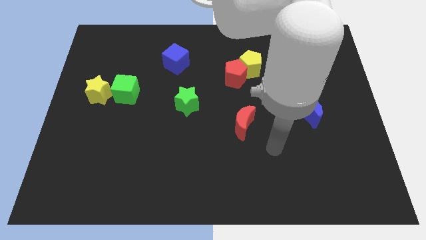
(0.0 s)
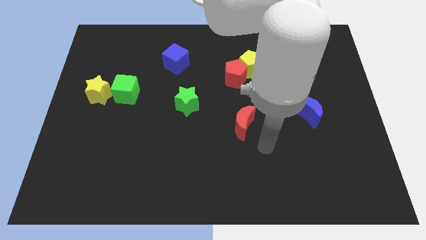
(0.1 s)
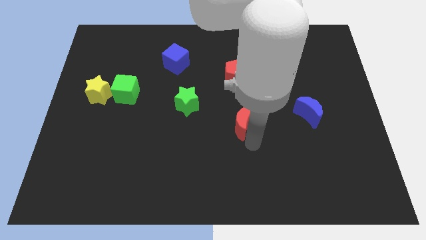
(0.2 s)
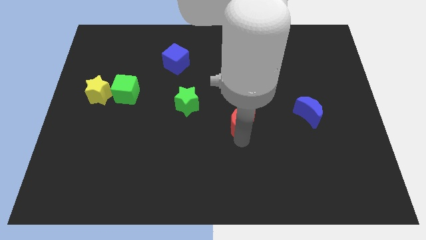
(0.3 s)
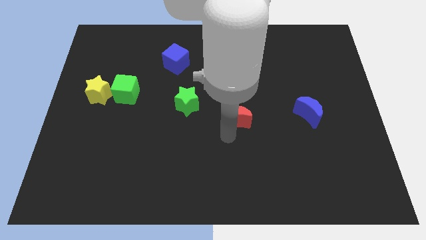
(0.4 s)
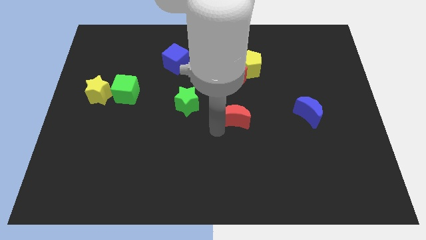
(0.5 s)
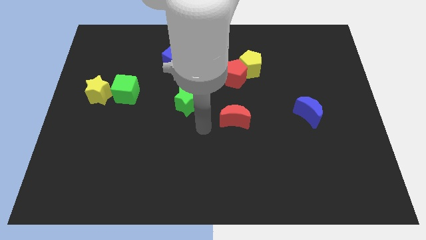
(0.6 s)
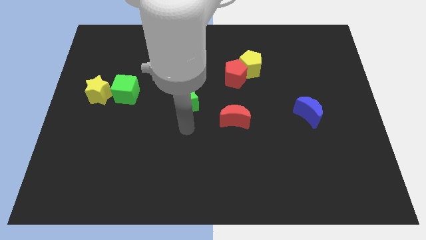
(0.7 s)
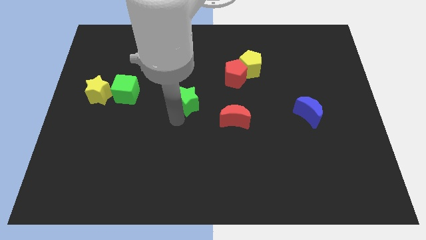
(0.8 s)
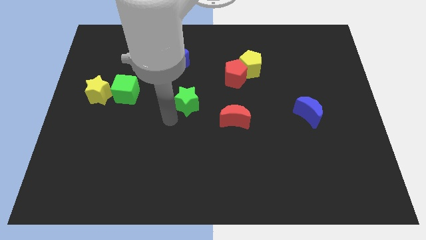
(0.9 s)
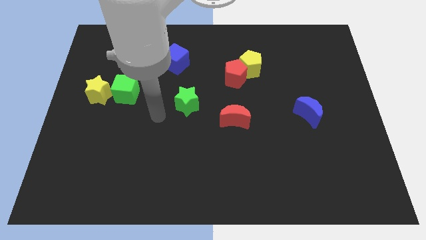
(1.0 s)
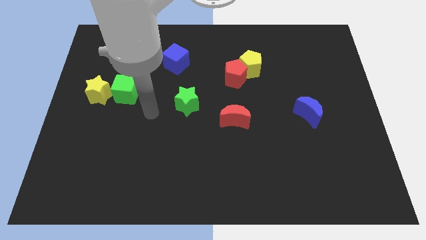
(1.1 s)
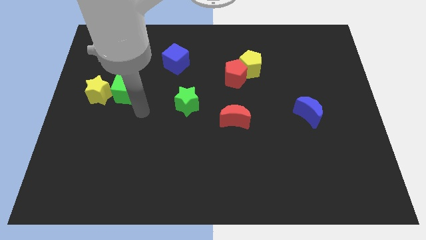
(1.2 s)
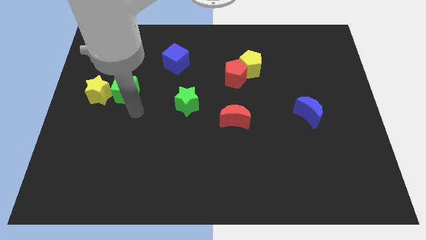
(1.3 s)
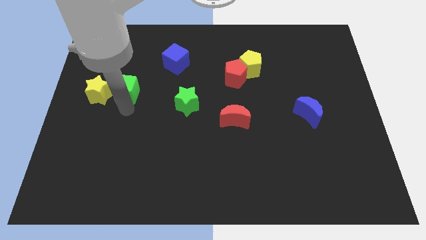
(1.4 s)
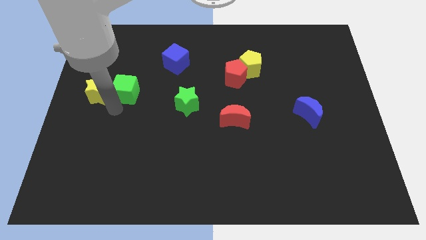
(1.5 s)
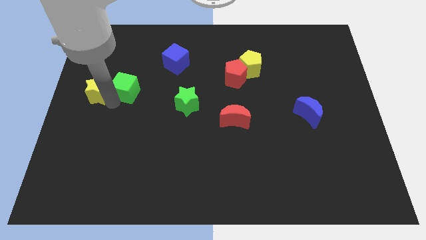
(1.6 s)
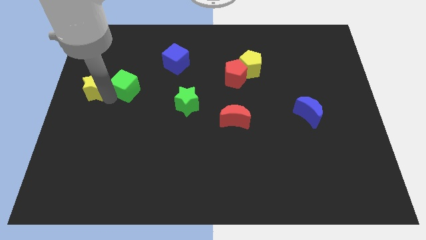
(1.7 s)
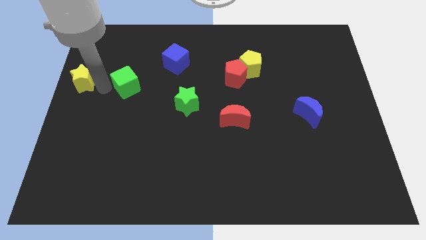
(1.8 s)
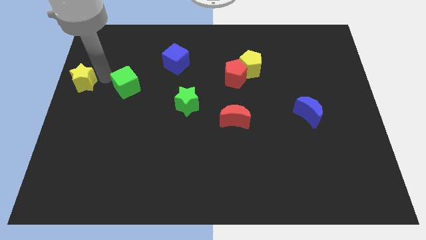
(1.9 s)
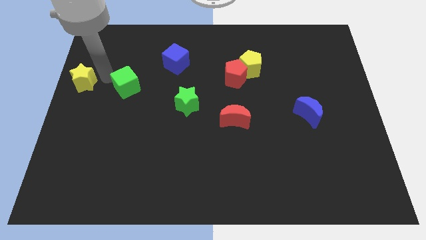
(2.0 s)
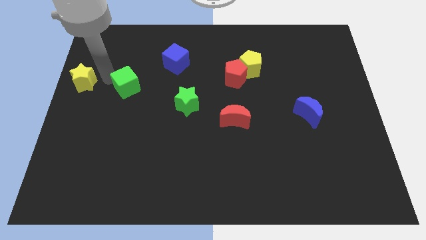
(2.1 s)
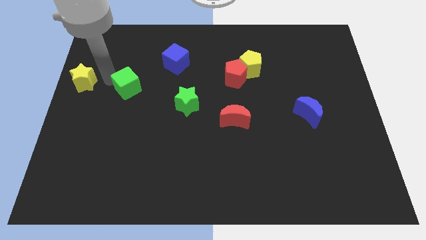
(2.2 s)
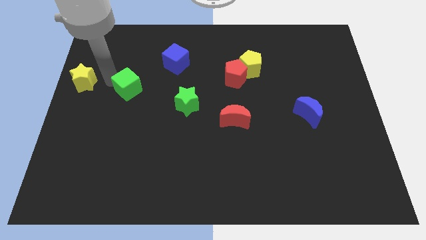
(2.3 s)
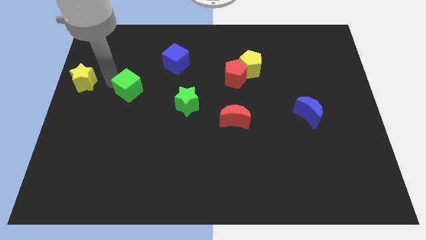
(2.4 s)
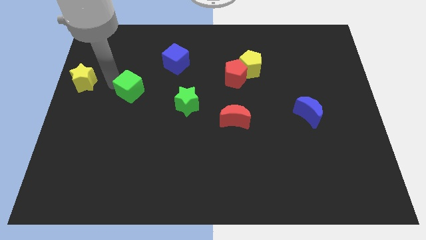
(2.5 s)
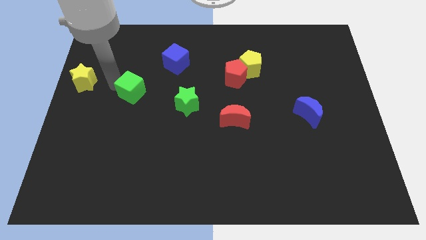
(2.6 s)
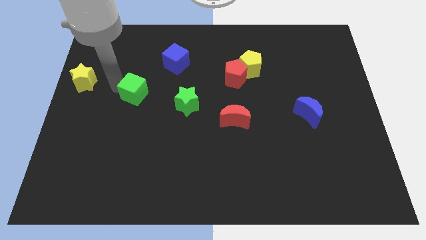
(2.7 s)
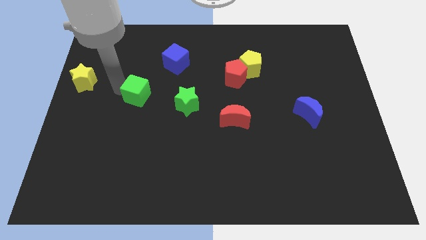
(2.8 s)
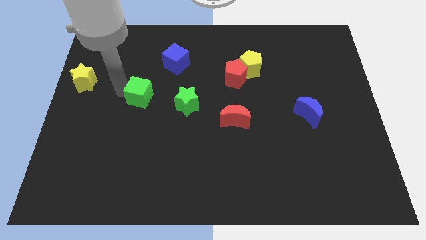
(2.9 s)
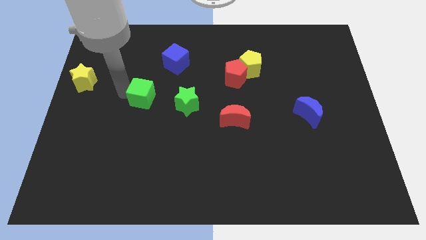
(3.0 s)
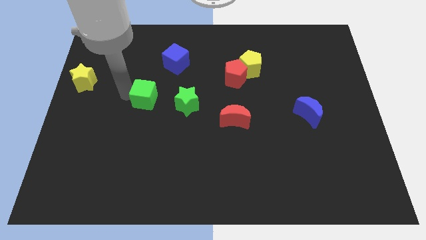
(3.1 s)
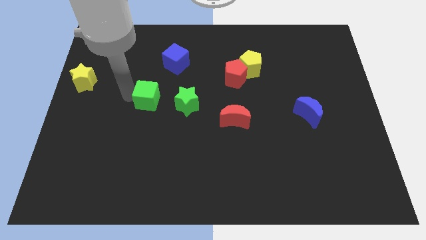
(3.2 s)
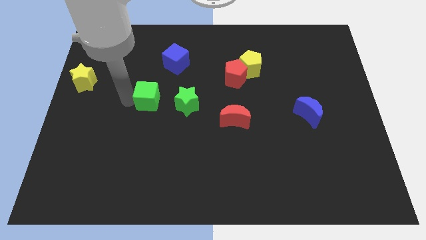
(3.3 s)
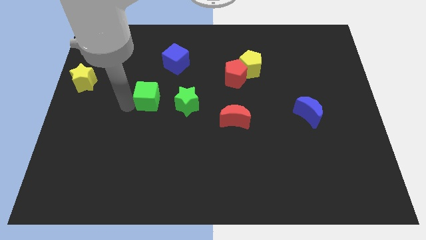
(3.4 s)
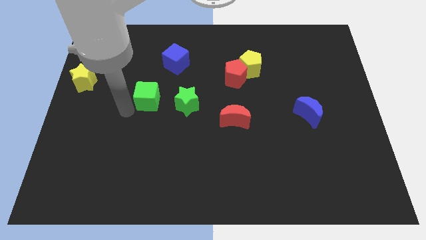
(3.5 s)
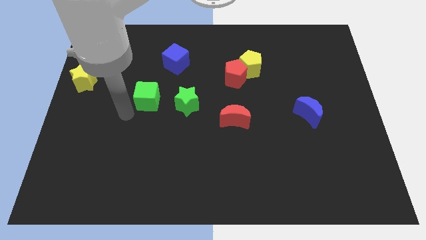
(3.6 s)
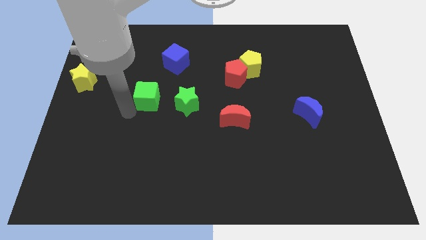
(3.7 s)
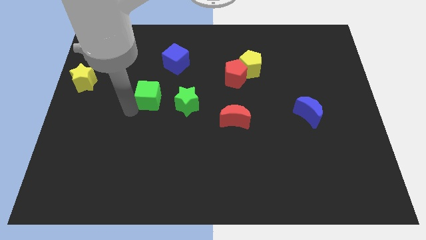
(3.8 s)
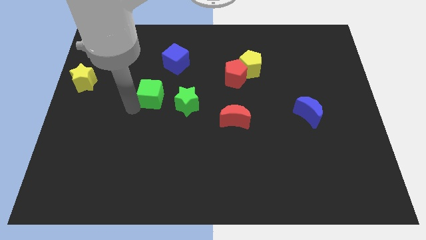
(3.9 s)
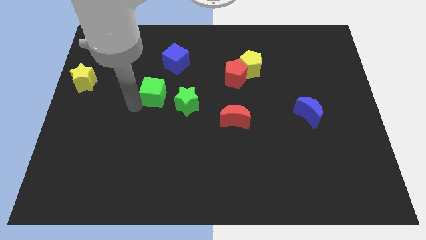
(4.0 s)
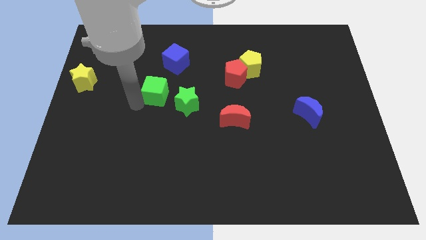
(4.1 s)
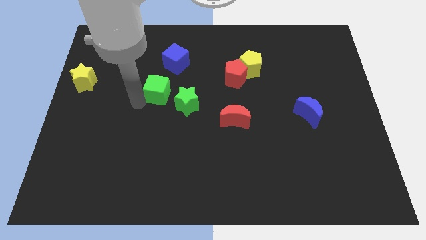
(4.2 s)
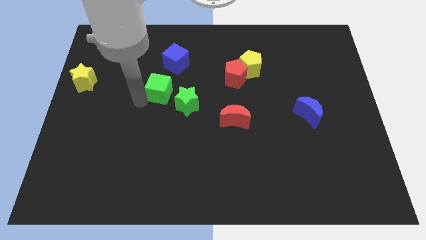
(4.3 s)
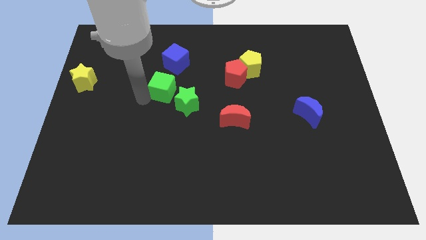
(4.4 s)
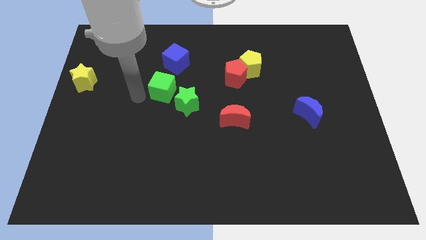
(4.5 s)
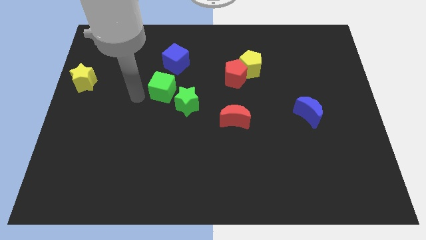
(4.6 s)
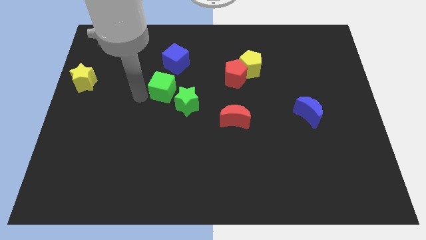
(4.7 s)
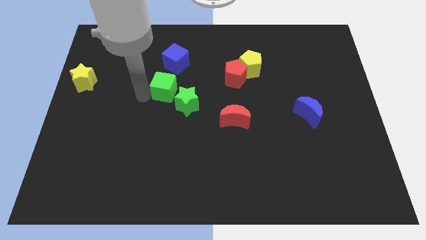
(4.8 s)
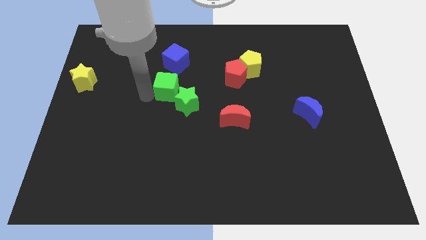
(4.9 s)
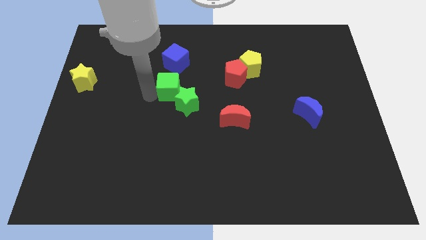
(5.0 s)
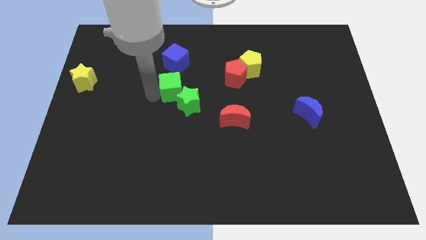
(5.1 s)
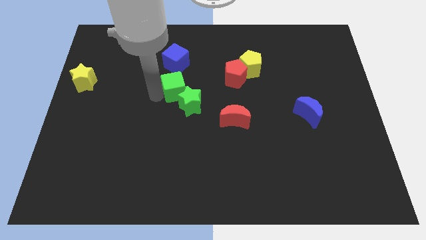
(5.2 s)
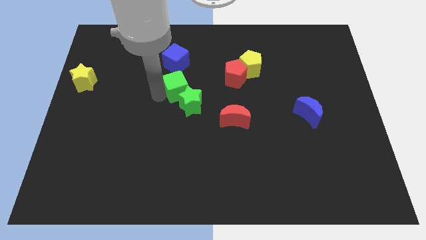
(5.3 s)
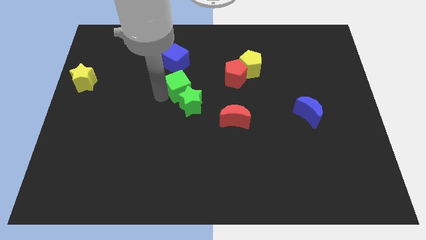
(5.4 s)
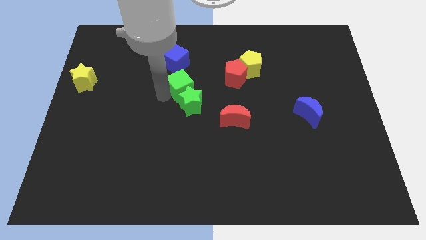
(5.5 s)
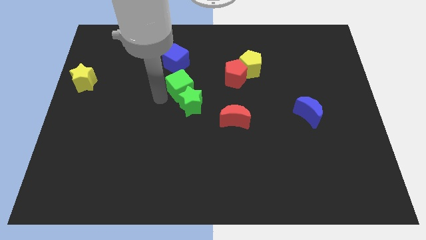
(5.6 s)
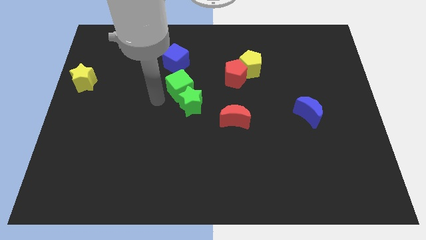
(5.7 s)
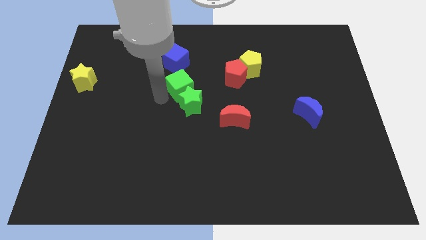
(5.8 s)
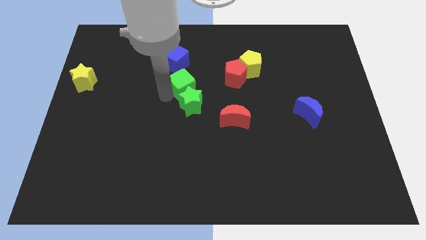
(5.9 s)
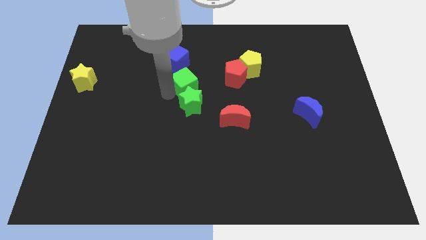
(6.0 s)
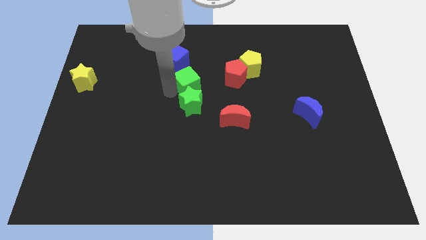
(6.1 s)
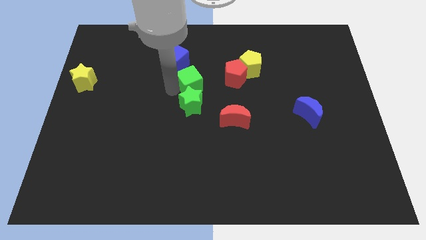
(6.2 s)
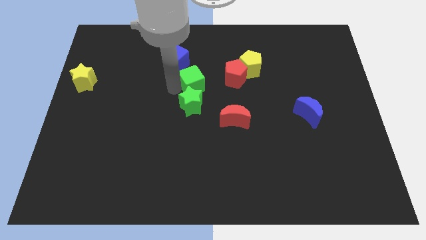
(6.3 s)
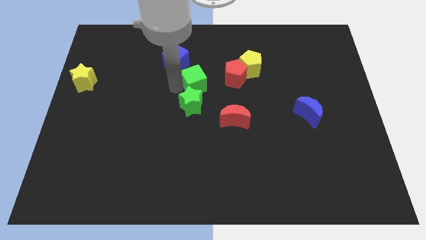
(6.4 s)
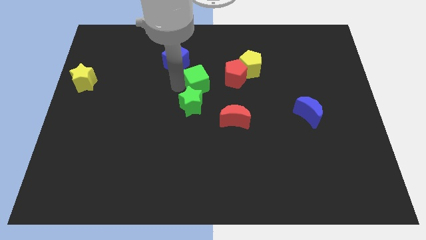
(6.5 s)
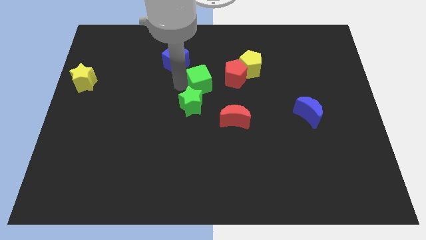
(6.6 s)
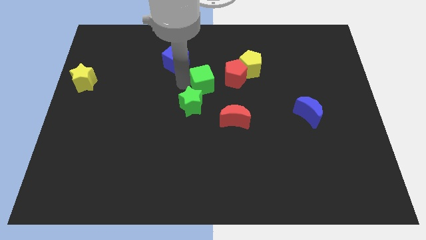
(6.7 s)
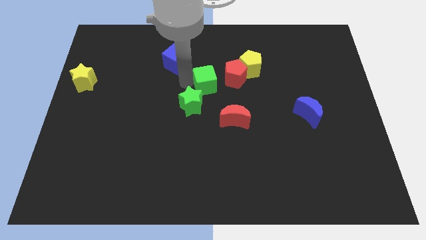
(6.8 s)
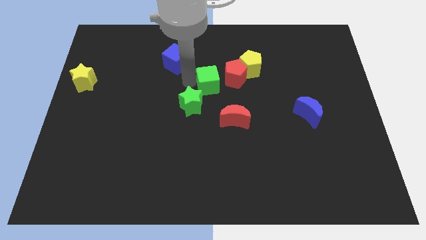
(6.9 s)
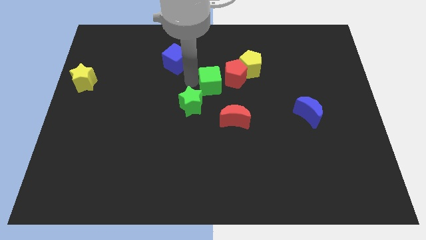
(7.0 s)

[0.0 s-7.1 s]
move the green cube right

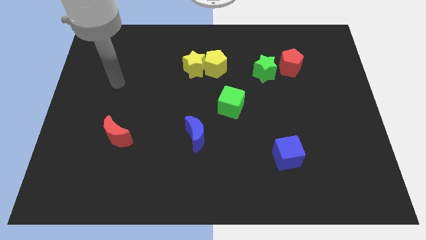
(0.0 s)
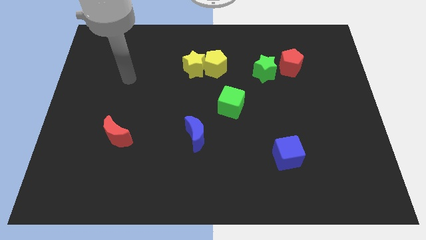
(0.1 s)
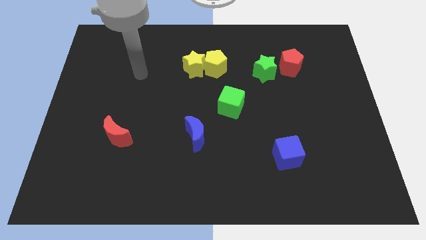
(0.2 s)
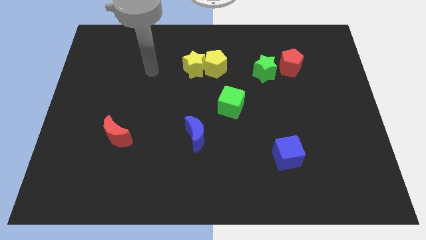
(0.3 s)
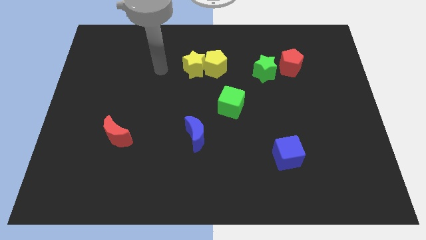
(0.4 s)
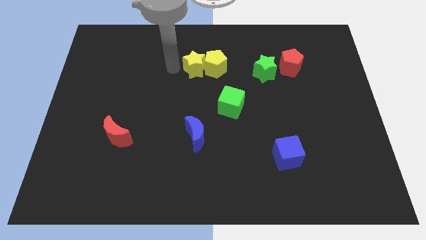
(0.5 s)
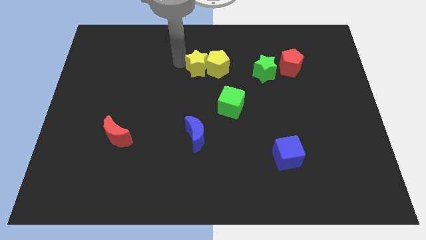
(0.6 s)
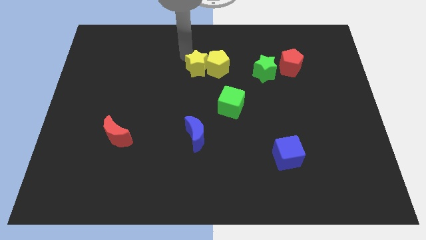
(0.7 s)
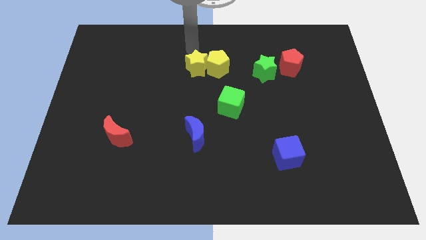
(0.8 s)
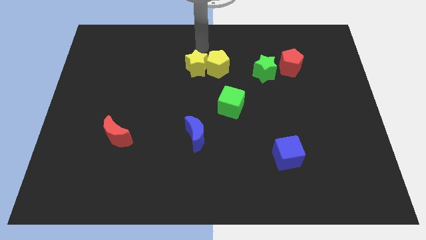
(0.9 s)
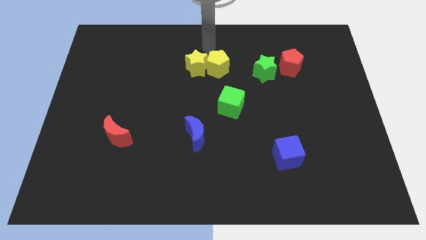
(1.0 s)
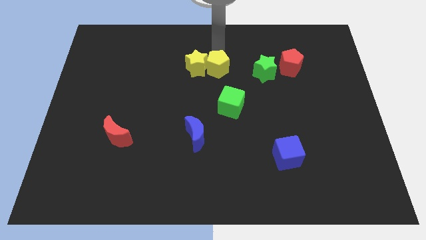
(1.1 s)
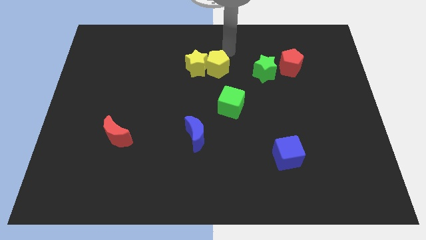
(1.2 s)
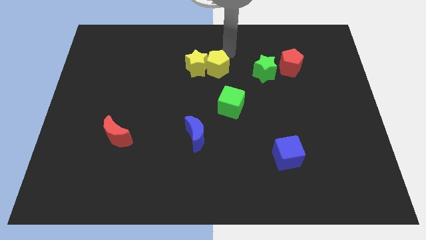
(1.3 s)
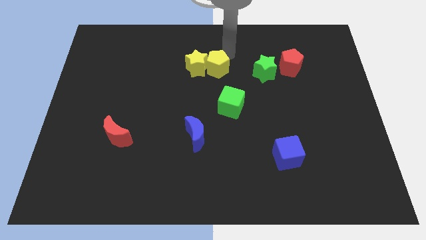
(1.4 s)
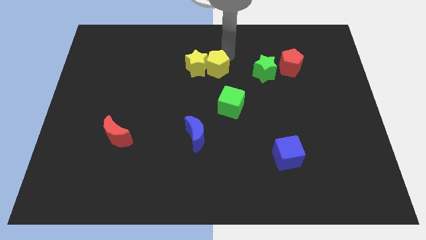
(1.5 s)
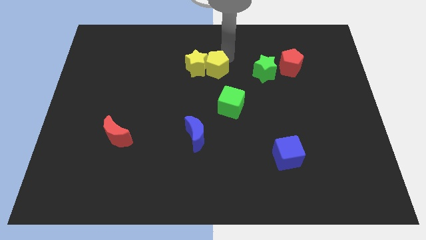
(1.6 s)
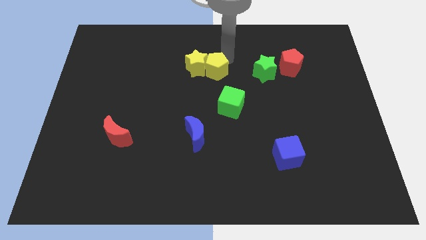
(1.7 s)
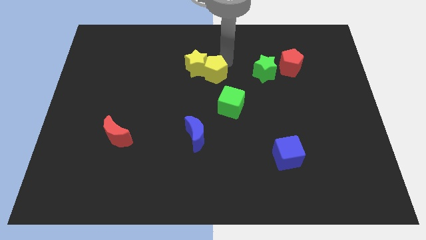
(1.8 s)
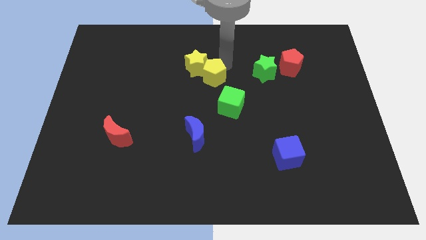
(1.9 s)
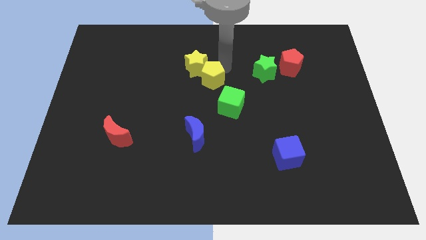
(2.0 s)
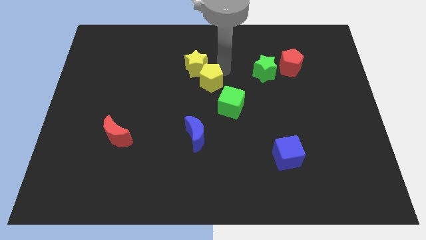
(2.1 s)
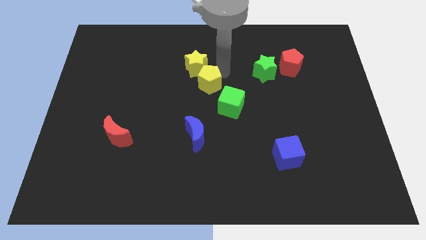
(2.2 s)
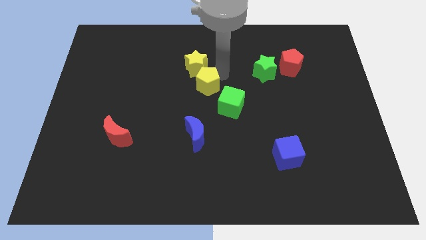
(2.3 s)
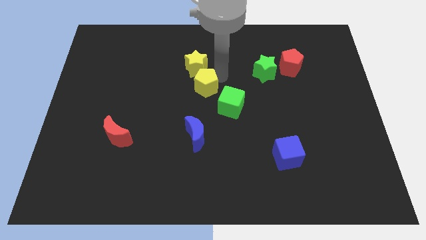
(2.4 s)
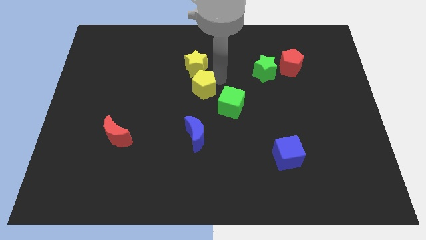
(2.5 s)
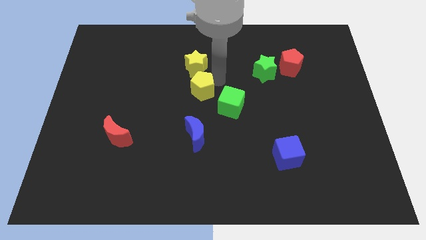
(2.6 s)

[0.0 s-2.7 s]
slide the yellow pentagon down and left diagonally a little bit
